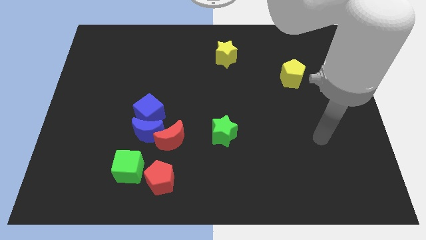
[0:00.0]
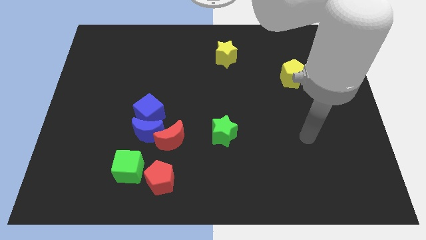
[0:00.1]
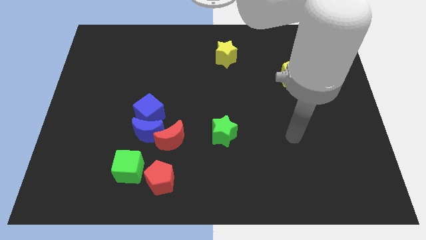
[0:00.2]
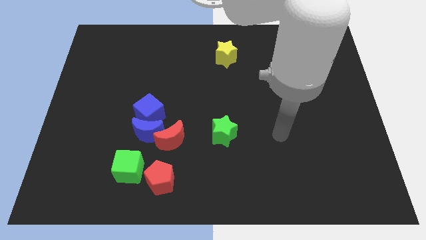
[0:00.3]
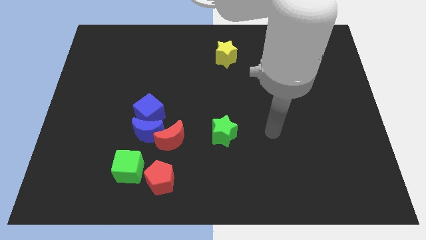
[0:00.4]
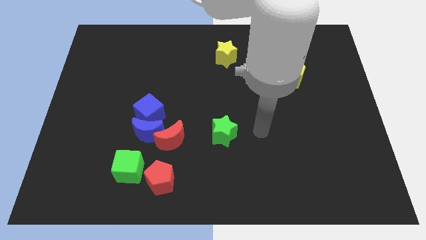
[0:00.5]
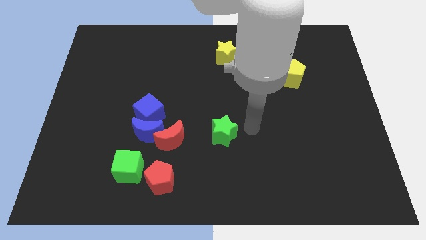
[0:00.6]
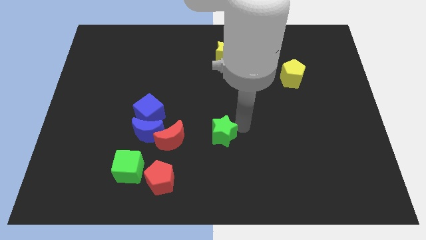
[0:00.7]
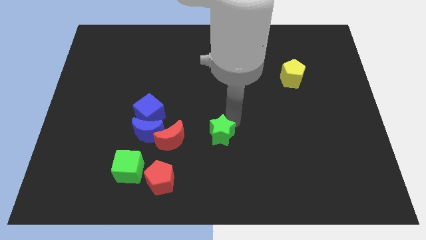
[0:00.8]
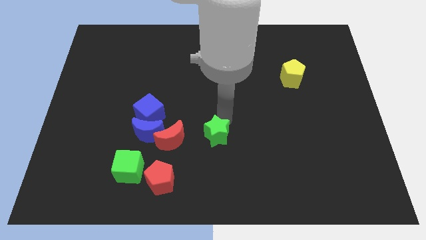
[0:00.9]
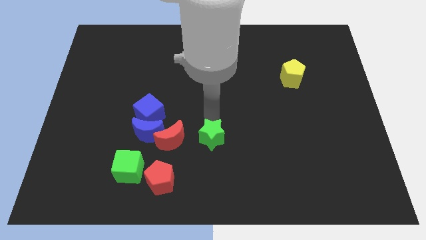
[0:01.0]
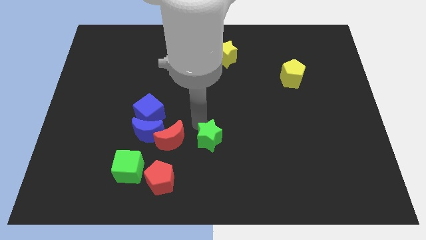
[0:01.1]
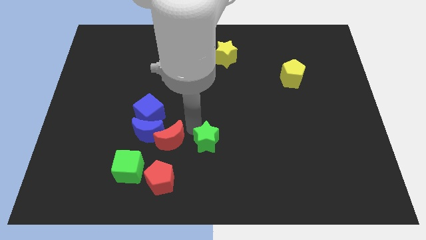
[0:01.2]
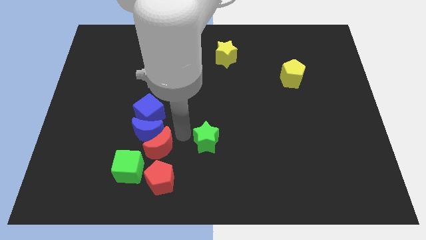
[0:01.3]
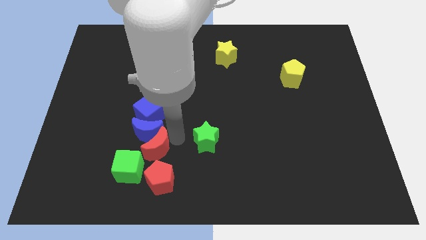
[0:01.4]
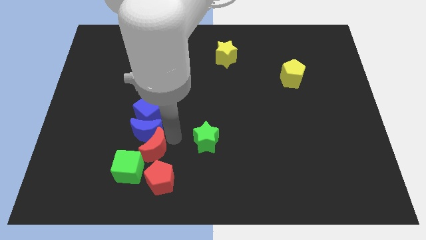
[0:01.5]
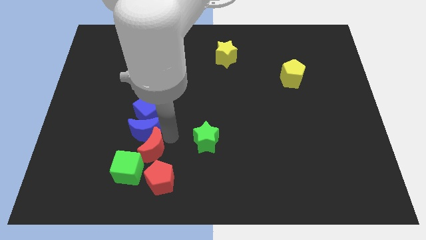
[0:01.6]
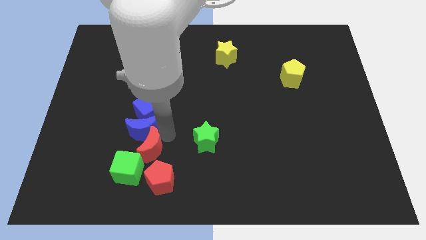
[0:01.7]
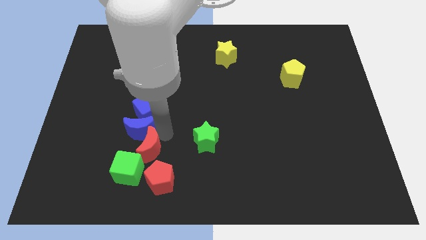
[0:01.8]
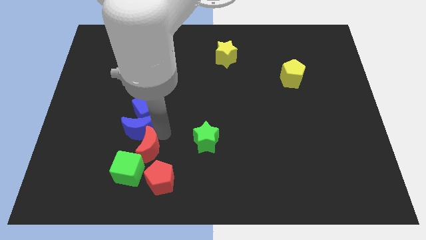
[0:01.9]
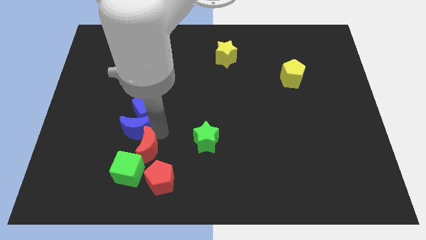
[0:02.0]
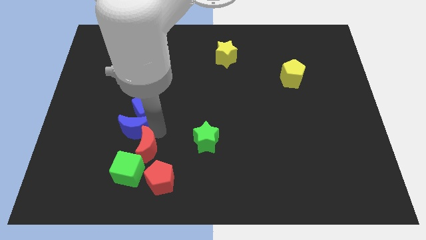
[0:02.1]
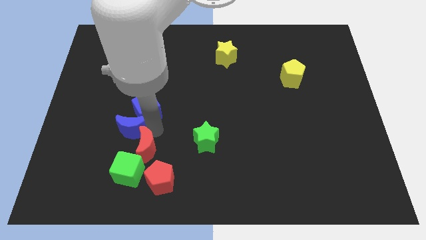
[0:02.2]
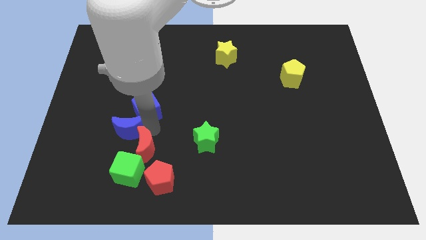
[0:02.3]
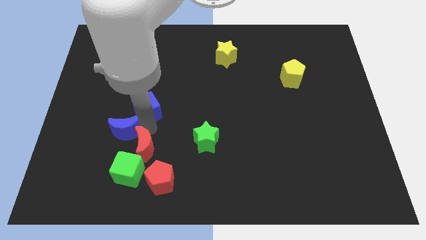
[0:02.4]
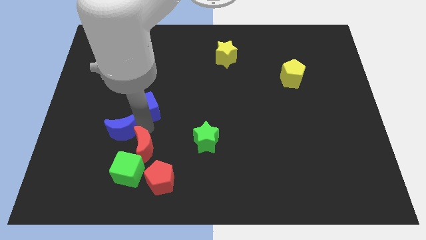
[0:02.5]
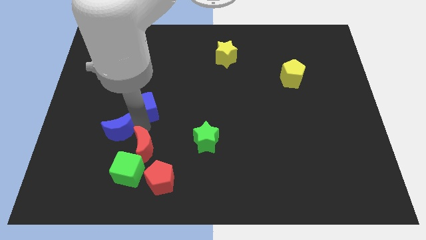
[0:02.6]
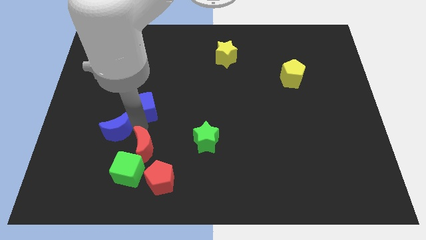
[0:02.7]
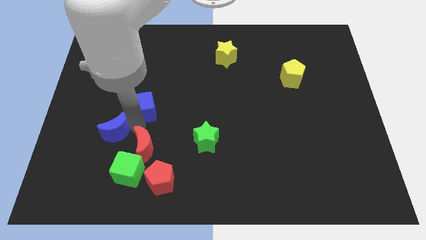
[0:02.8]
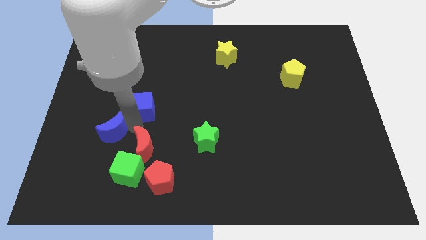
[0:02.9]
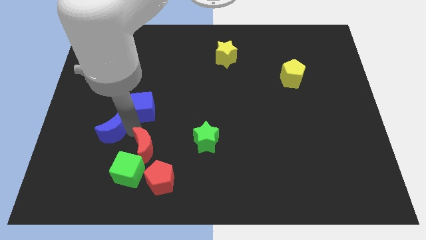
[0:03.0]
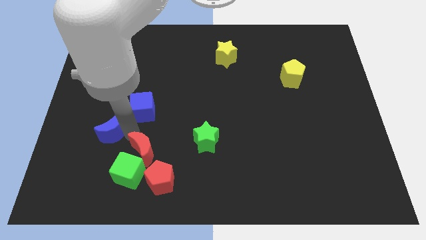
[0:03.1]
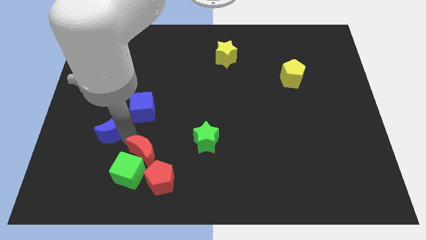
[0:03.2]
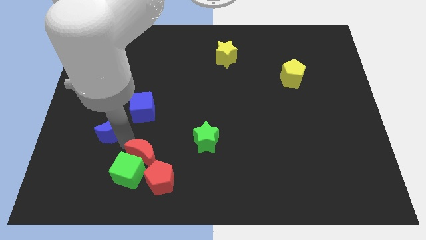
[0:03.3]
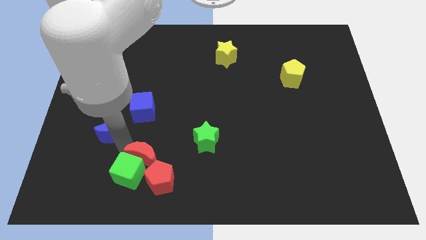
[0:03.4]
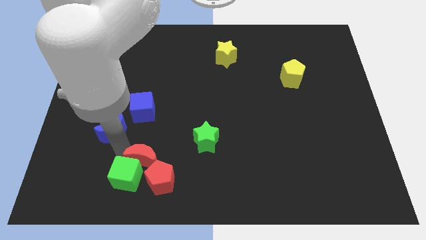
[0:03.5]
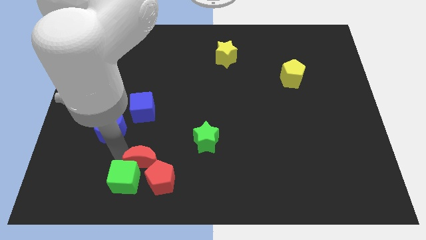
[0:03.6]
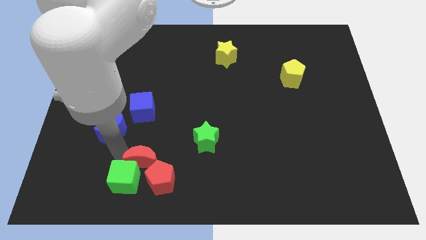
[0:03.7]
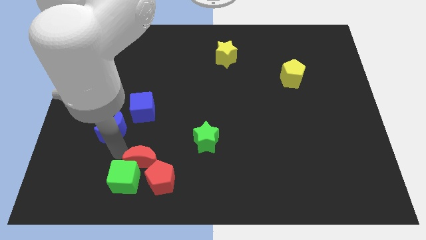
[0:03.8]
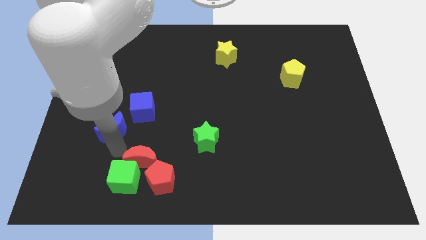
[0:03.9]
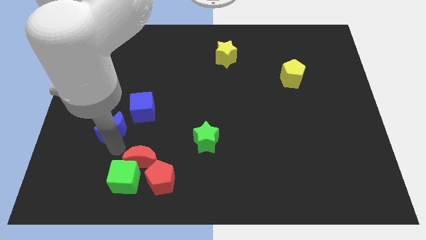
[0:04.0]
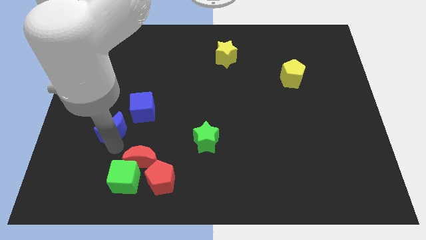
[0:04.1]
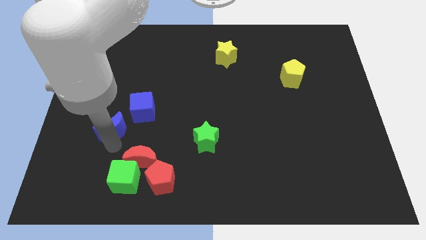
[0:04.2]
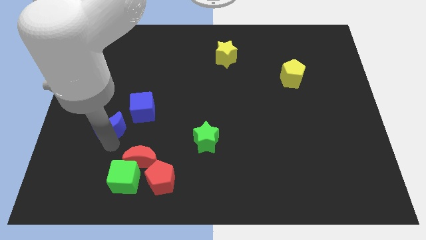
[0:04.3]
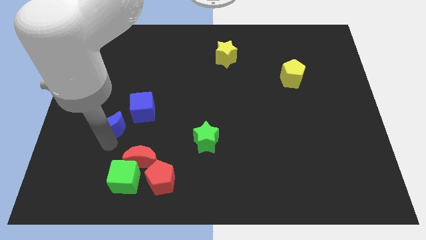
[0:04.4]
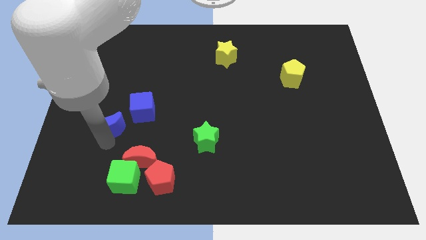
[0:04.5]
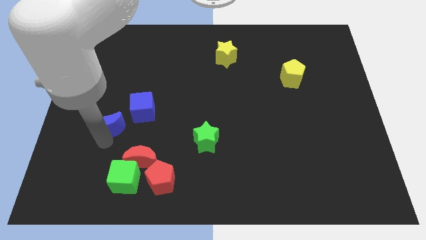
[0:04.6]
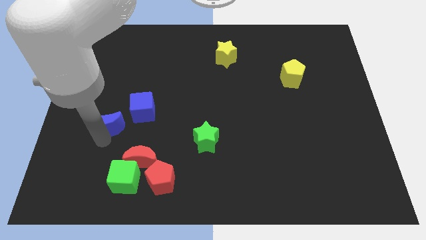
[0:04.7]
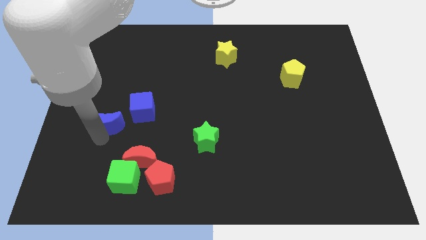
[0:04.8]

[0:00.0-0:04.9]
slide the blue moon diagonally upwards and to the left a little bit

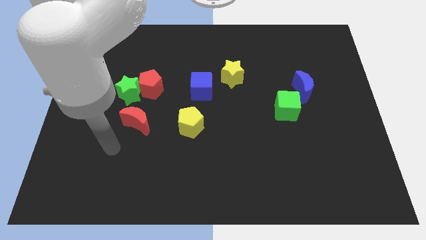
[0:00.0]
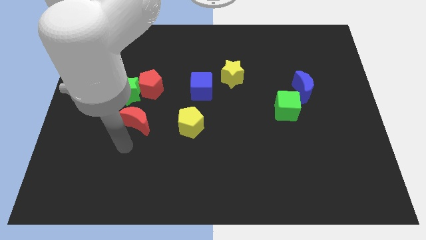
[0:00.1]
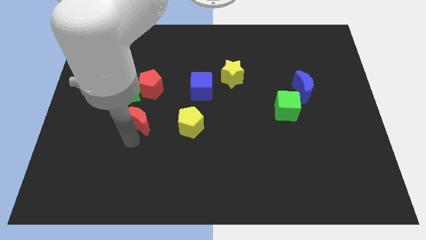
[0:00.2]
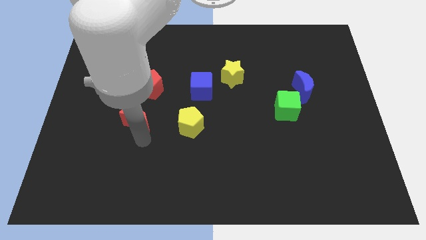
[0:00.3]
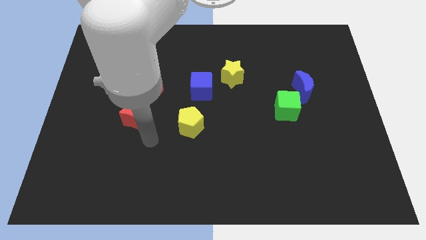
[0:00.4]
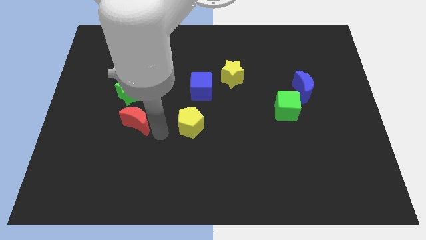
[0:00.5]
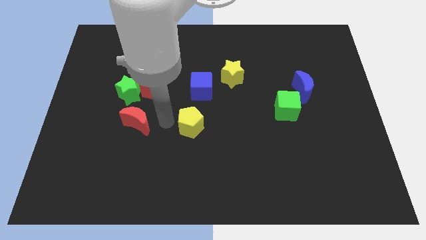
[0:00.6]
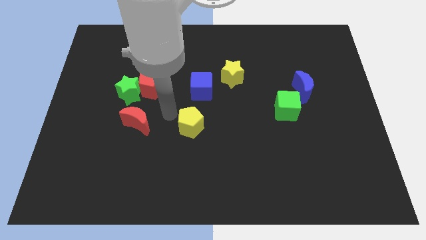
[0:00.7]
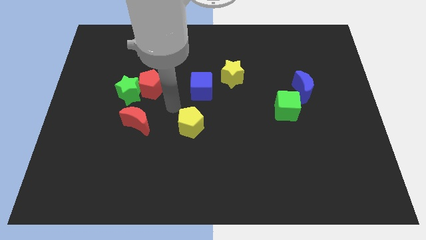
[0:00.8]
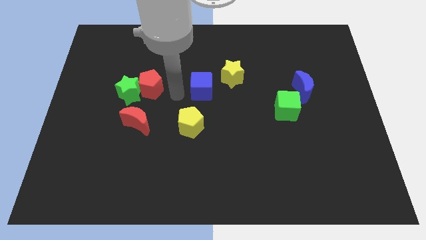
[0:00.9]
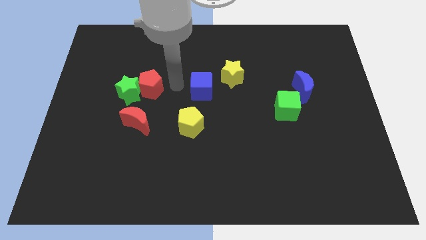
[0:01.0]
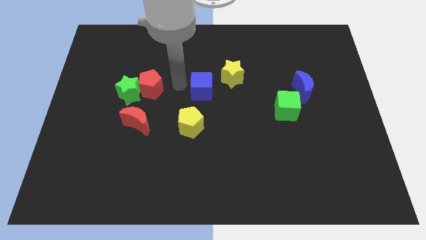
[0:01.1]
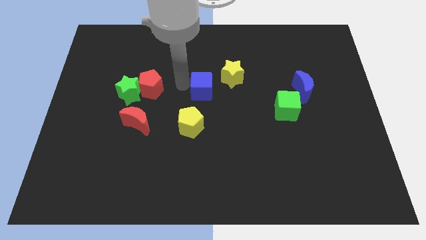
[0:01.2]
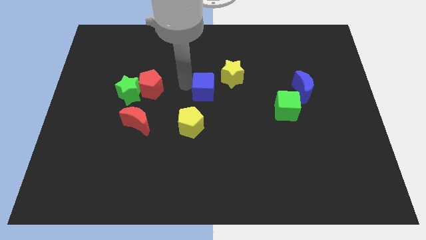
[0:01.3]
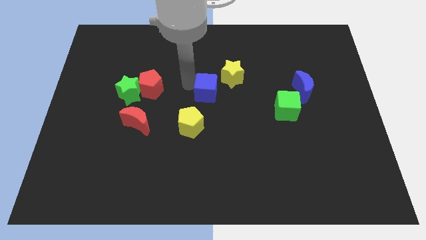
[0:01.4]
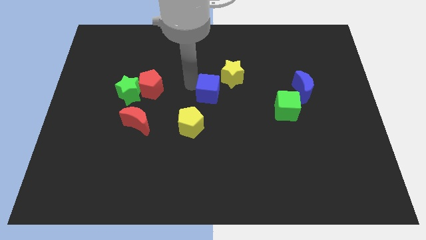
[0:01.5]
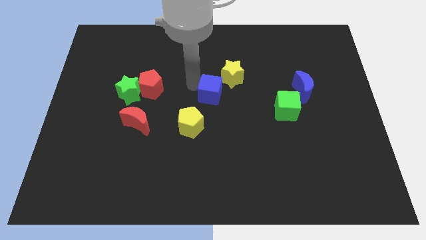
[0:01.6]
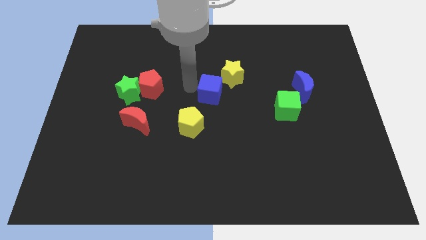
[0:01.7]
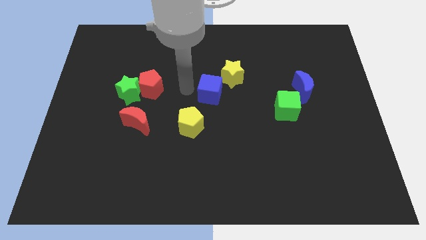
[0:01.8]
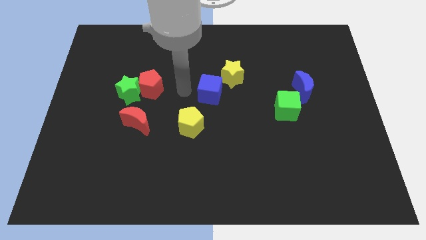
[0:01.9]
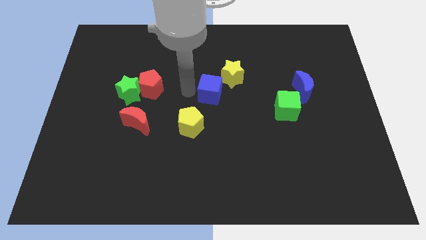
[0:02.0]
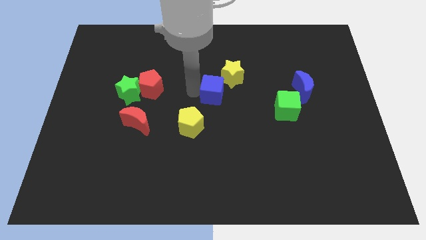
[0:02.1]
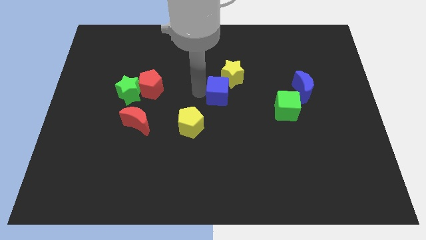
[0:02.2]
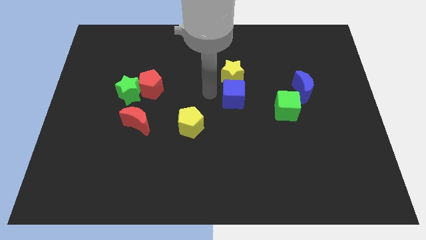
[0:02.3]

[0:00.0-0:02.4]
push the blue cube somewhat right

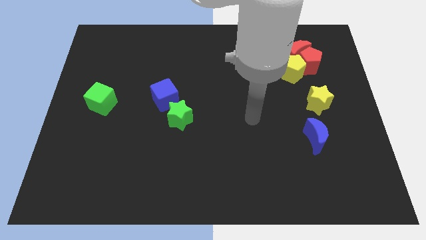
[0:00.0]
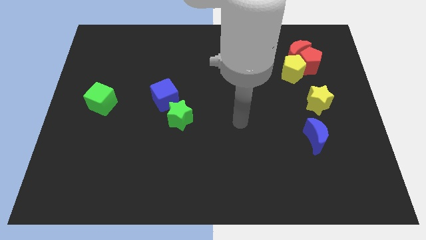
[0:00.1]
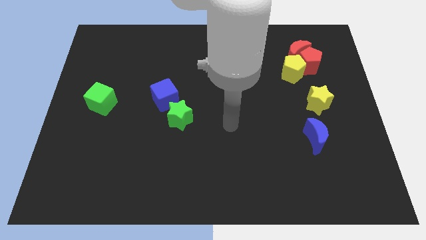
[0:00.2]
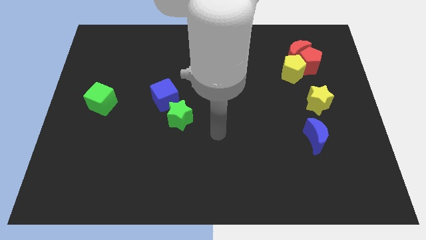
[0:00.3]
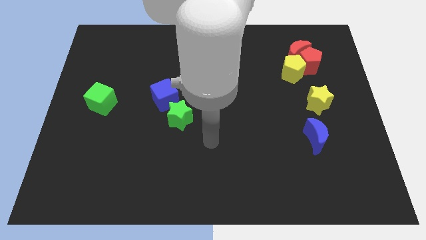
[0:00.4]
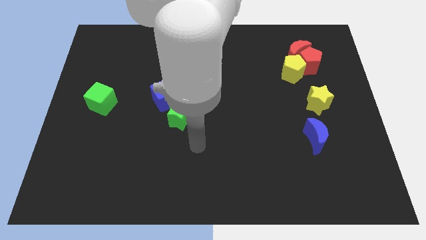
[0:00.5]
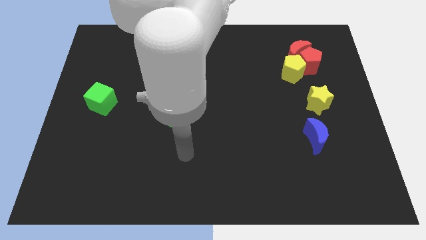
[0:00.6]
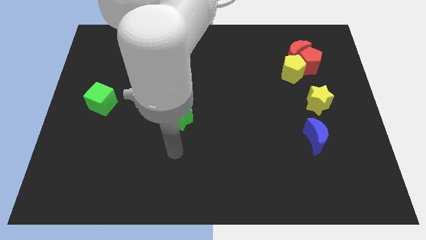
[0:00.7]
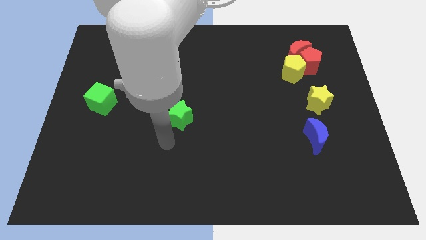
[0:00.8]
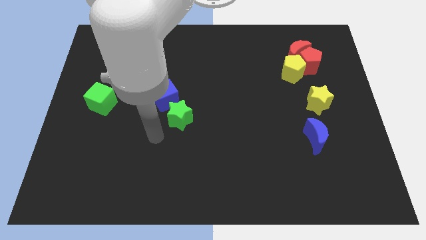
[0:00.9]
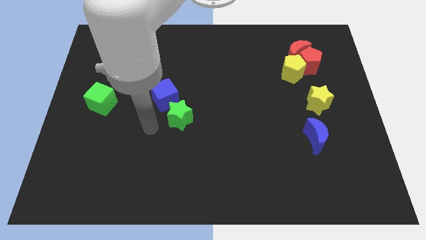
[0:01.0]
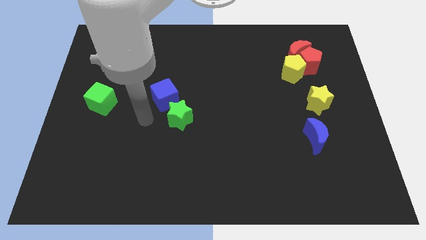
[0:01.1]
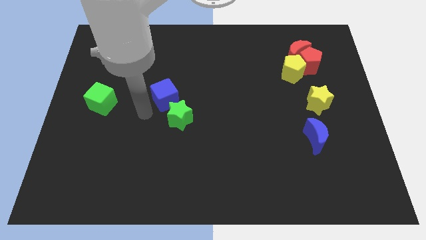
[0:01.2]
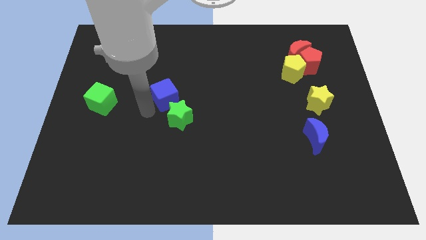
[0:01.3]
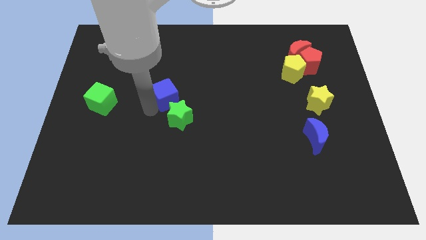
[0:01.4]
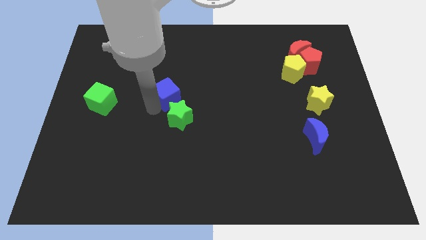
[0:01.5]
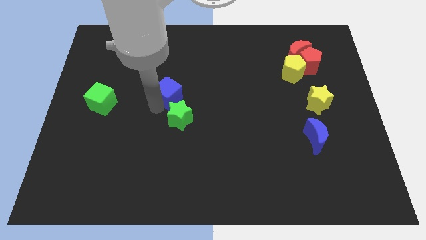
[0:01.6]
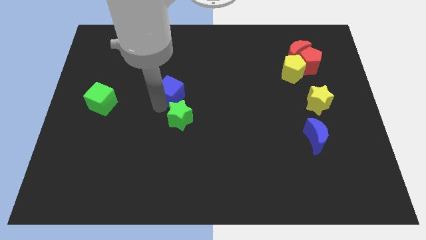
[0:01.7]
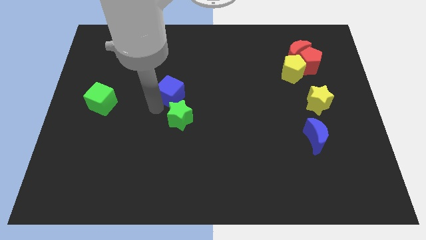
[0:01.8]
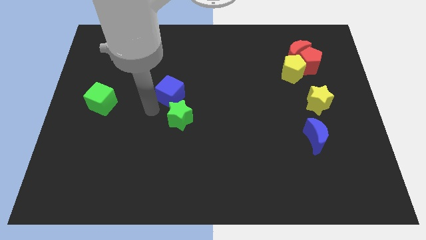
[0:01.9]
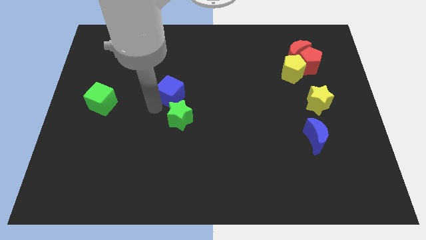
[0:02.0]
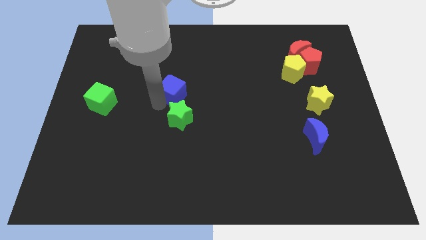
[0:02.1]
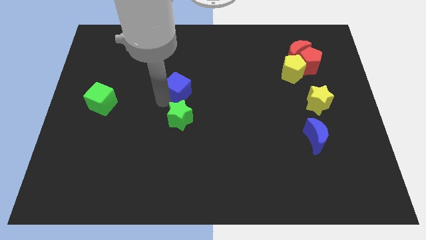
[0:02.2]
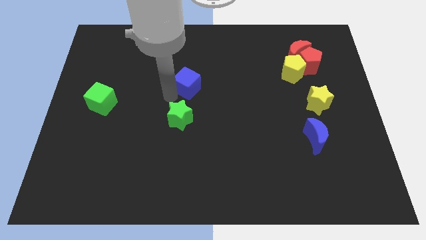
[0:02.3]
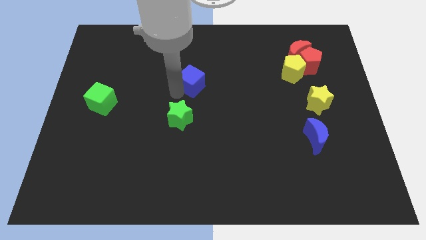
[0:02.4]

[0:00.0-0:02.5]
slightly move the blue cube upwards and right diagonally
